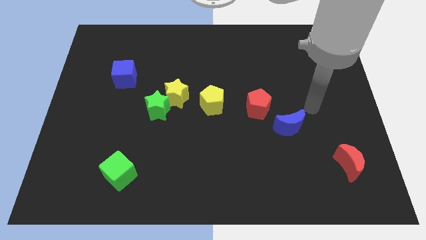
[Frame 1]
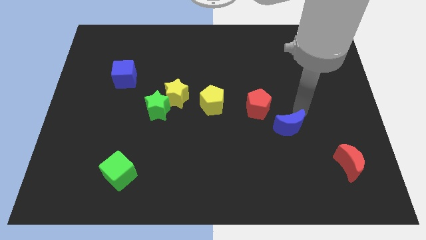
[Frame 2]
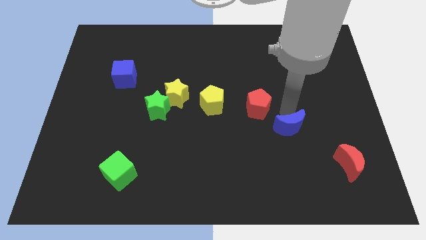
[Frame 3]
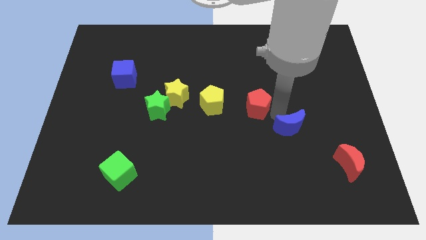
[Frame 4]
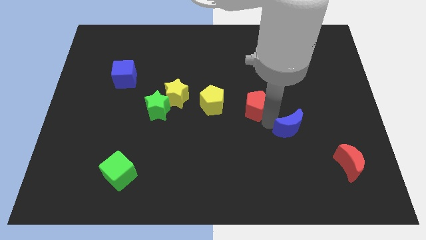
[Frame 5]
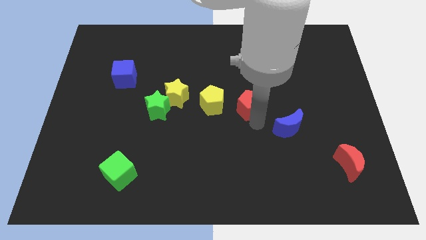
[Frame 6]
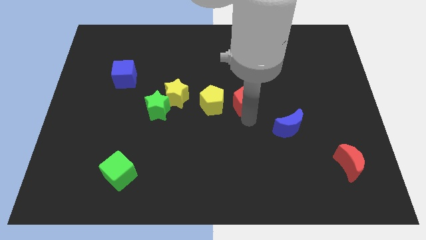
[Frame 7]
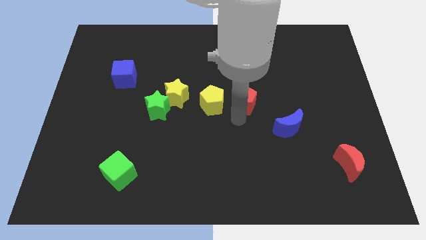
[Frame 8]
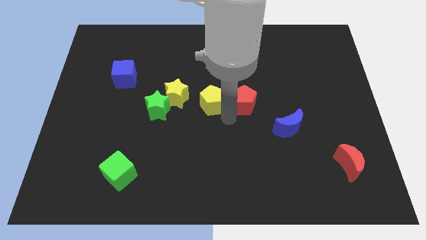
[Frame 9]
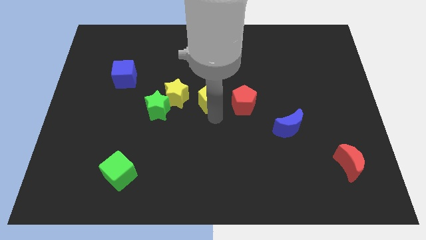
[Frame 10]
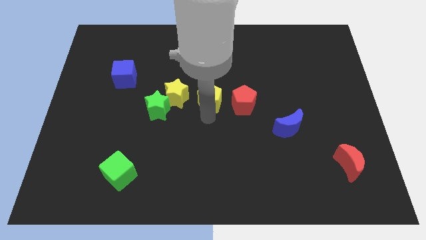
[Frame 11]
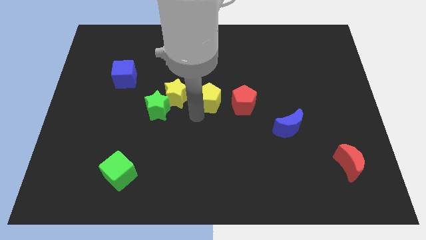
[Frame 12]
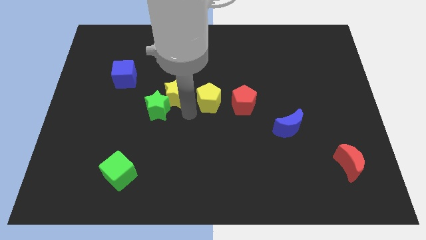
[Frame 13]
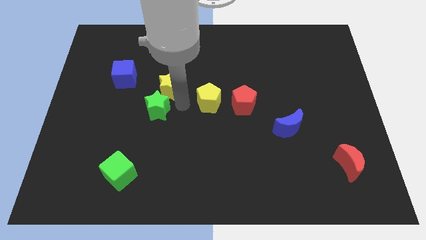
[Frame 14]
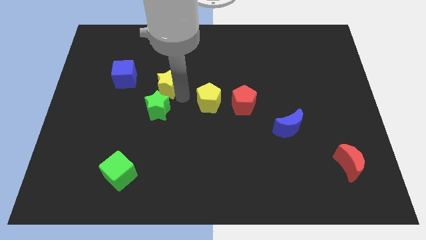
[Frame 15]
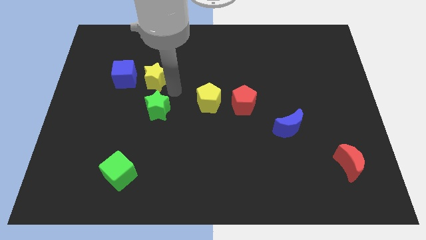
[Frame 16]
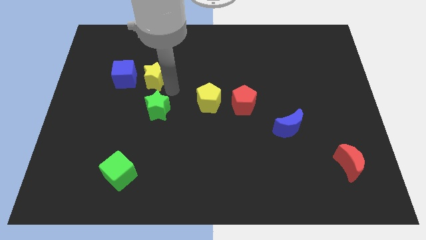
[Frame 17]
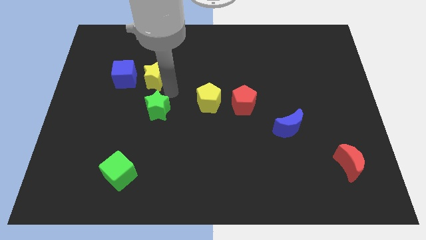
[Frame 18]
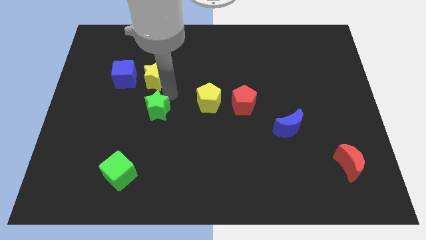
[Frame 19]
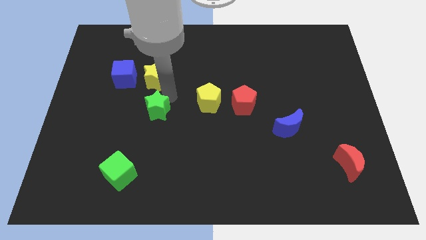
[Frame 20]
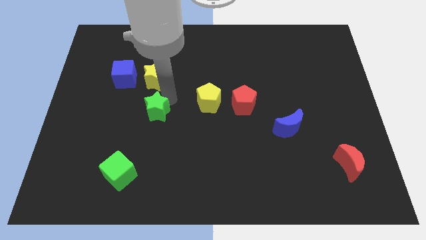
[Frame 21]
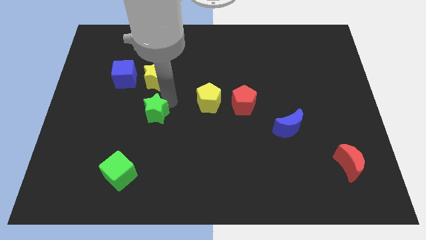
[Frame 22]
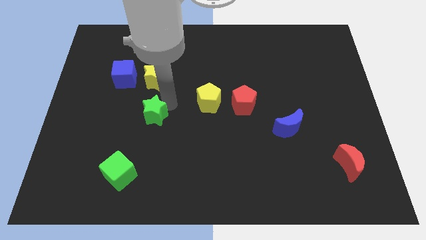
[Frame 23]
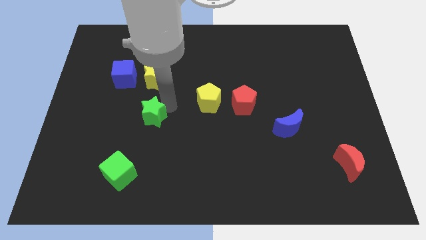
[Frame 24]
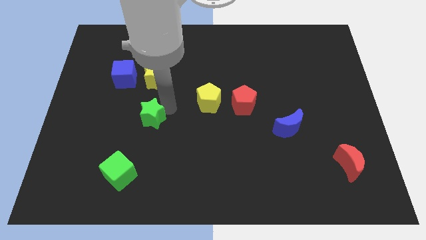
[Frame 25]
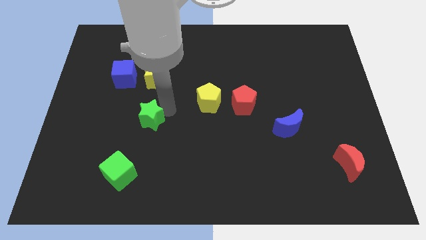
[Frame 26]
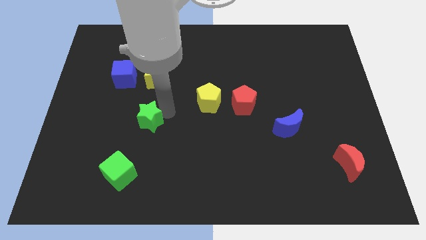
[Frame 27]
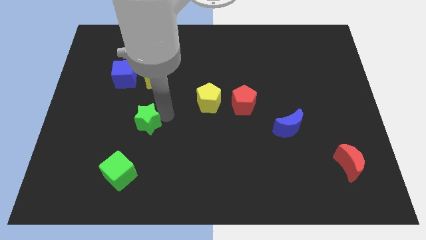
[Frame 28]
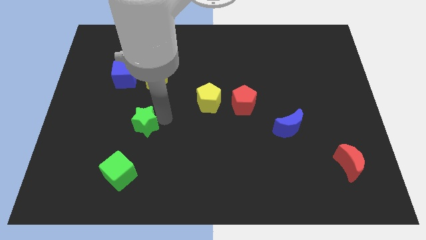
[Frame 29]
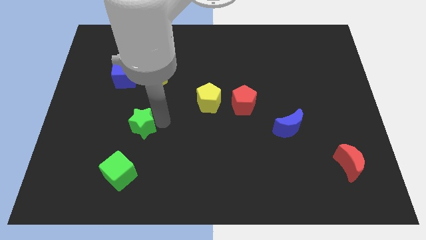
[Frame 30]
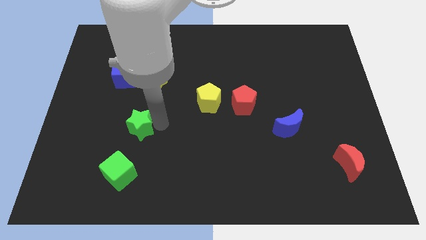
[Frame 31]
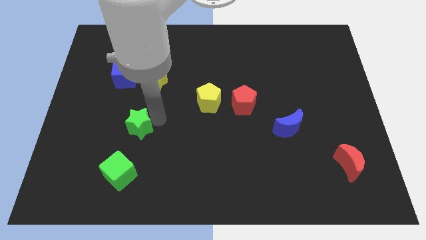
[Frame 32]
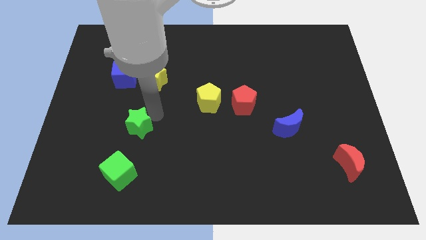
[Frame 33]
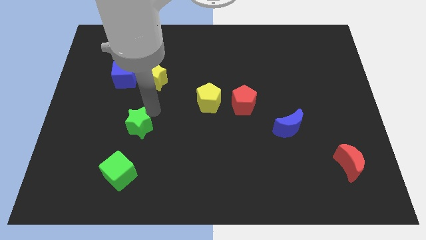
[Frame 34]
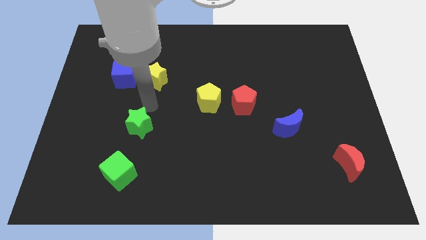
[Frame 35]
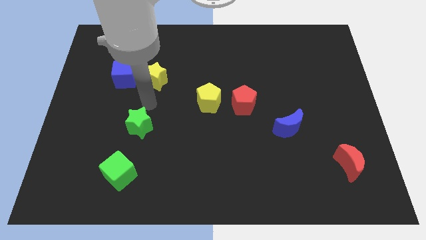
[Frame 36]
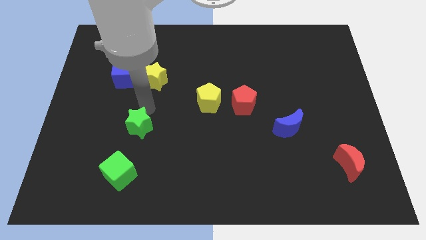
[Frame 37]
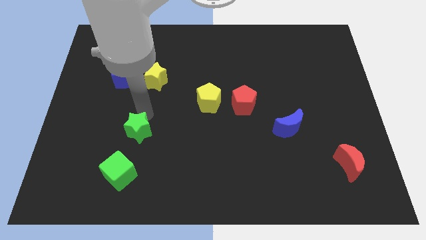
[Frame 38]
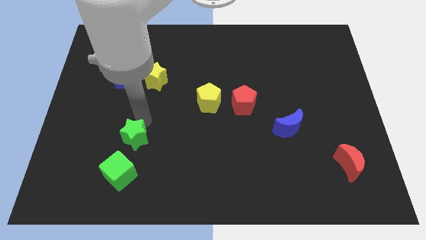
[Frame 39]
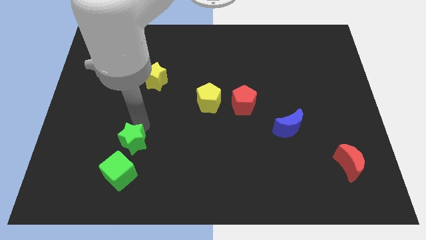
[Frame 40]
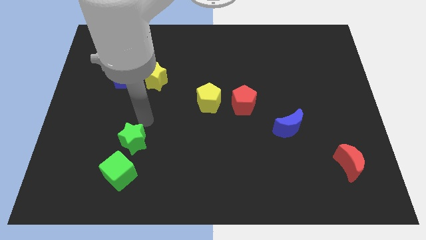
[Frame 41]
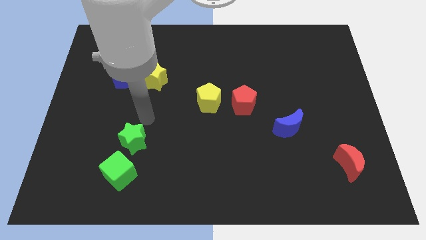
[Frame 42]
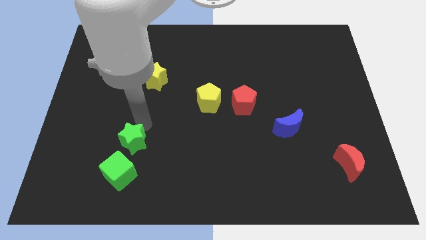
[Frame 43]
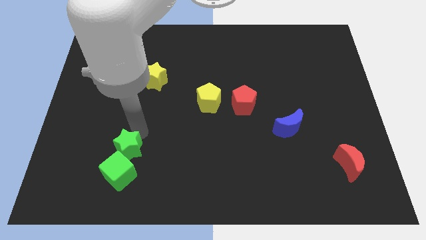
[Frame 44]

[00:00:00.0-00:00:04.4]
slide the green star close to the green cube

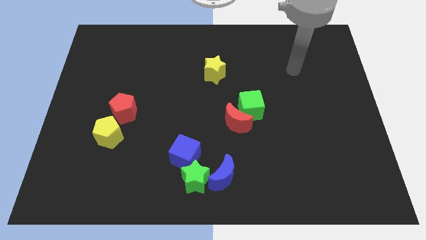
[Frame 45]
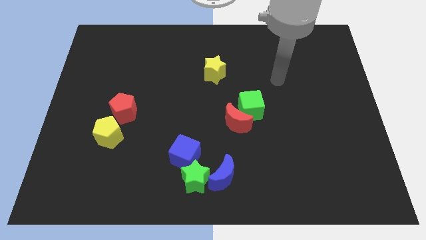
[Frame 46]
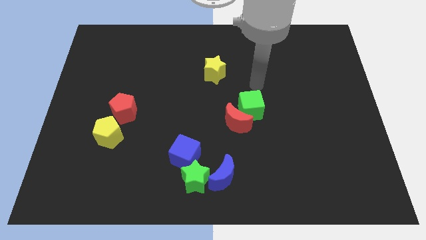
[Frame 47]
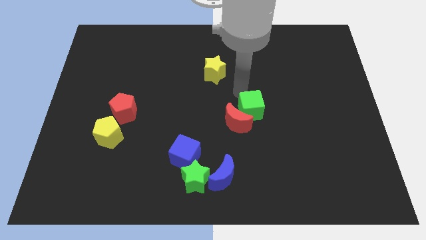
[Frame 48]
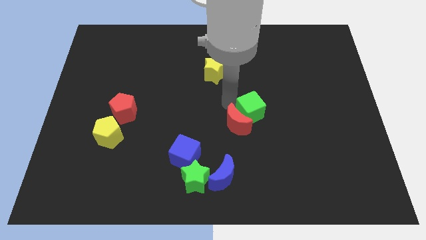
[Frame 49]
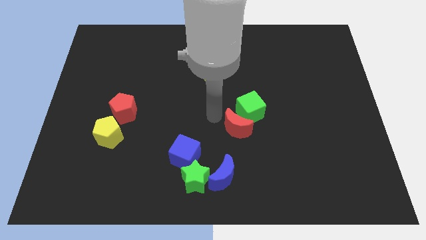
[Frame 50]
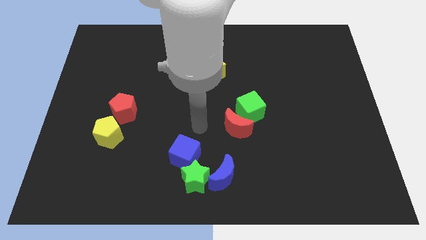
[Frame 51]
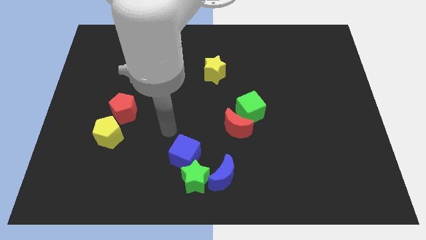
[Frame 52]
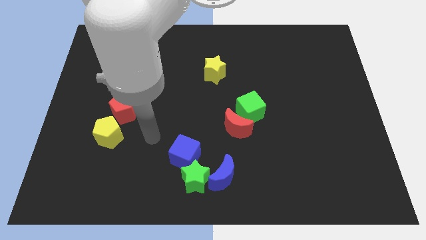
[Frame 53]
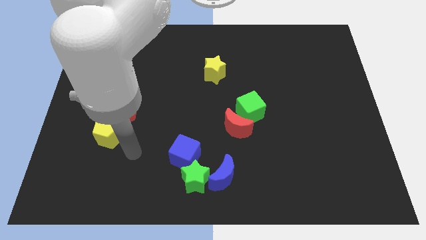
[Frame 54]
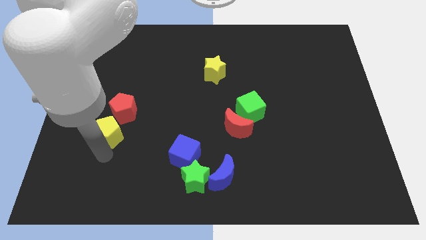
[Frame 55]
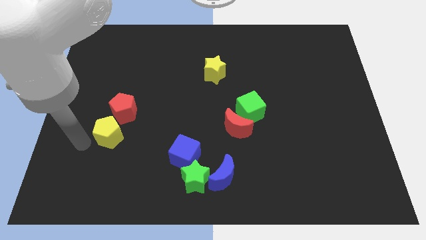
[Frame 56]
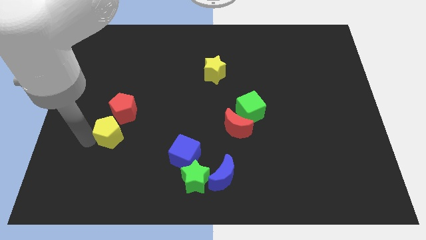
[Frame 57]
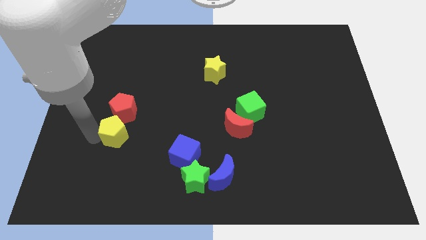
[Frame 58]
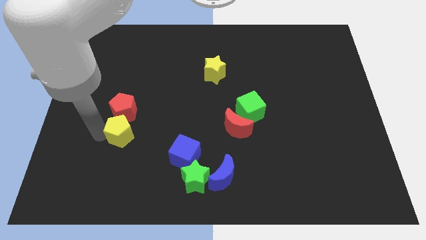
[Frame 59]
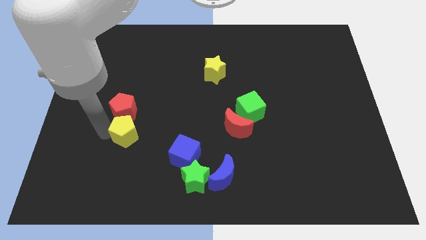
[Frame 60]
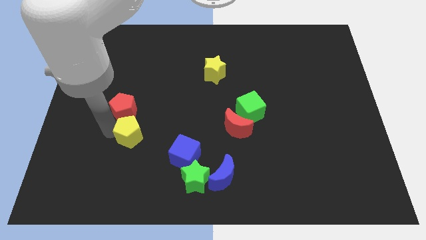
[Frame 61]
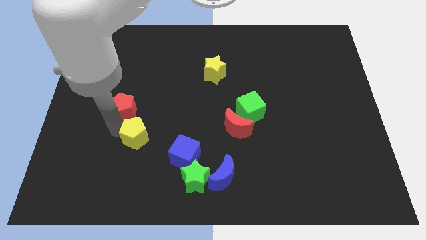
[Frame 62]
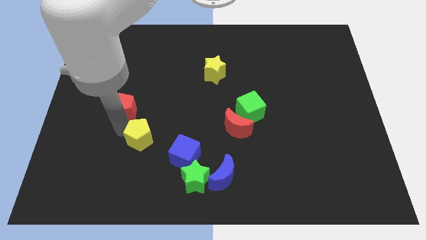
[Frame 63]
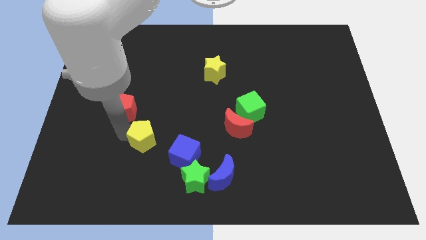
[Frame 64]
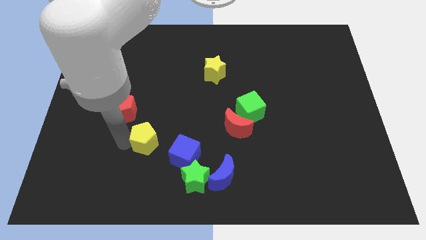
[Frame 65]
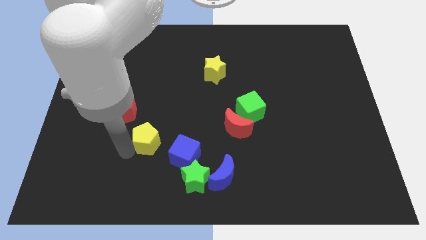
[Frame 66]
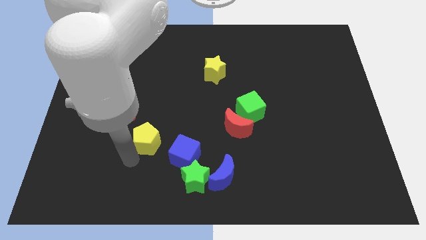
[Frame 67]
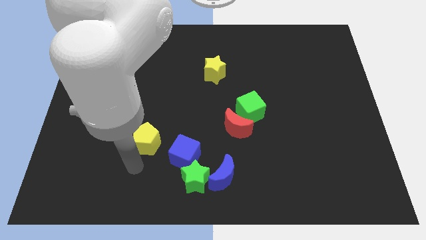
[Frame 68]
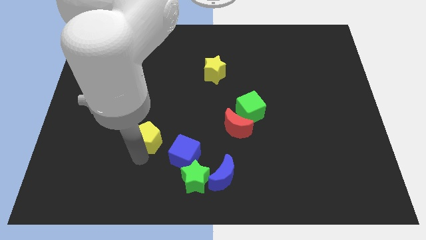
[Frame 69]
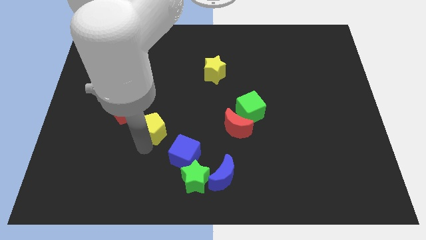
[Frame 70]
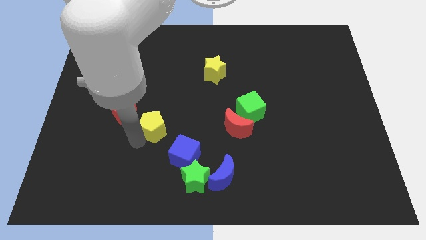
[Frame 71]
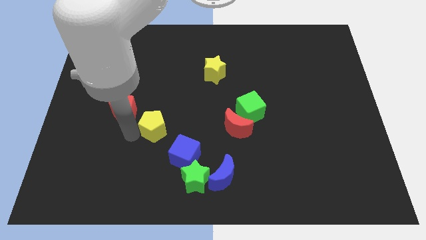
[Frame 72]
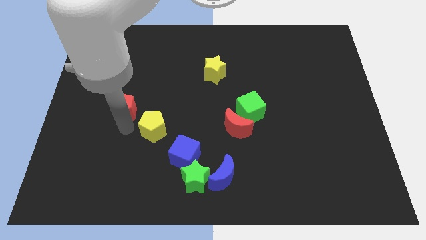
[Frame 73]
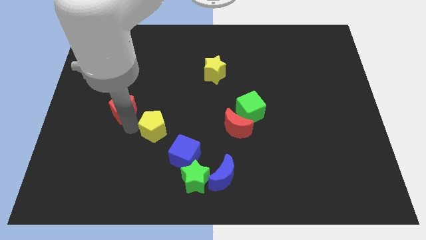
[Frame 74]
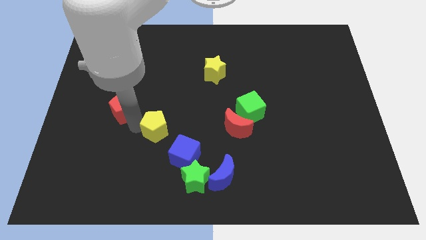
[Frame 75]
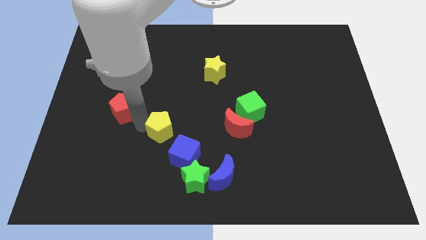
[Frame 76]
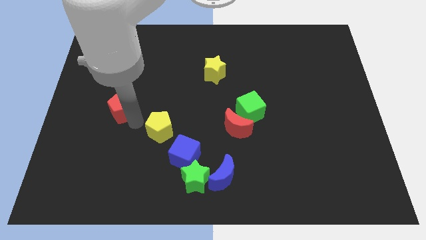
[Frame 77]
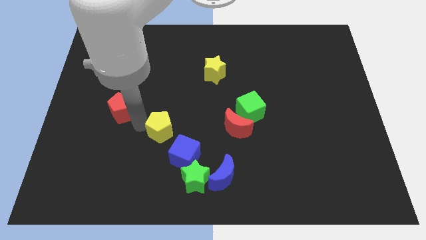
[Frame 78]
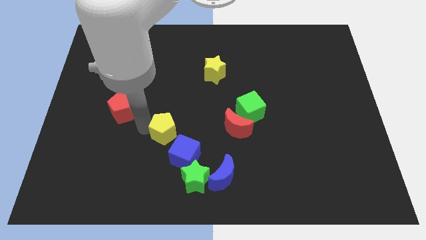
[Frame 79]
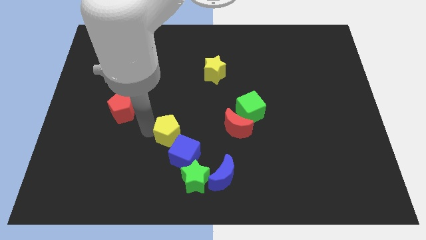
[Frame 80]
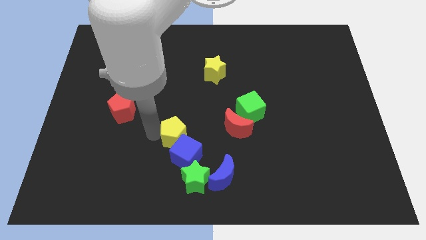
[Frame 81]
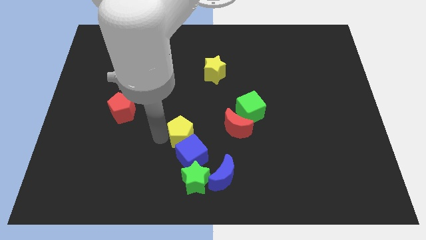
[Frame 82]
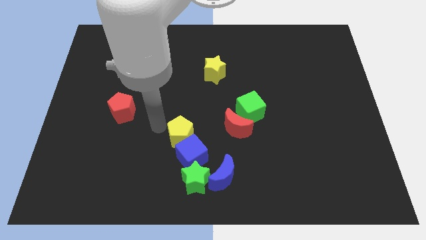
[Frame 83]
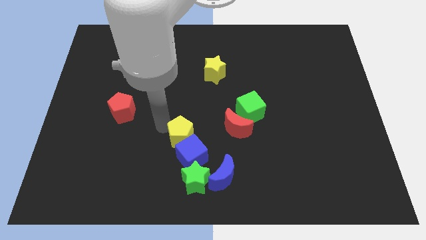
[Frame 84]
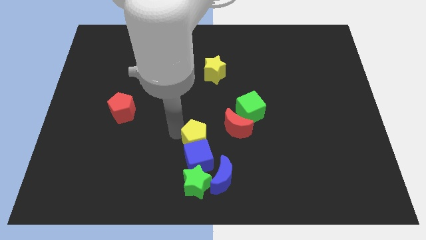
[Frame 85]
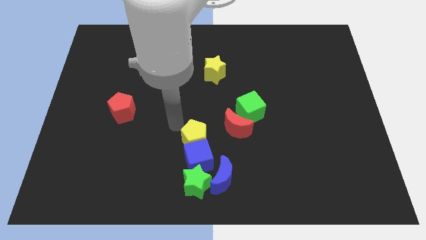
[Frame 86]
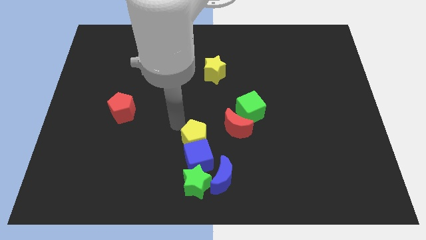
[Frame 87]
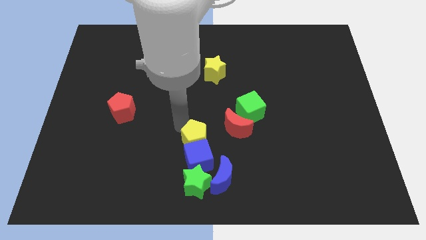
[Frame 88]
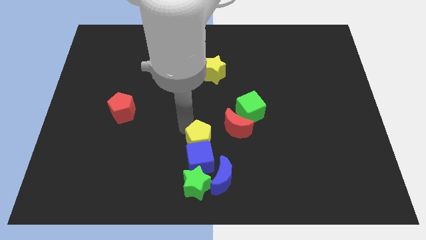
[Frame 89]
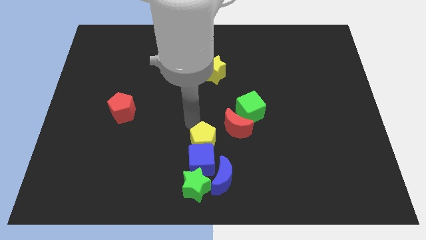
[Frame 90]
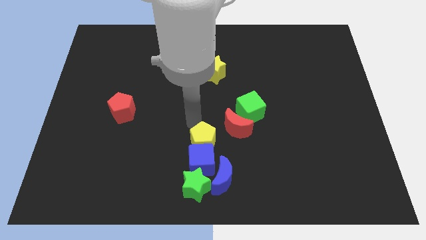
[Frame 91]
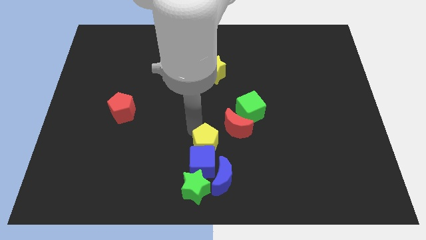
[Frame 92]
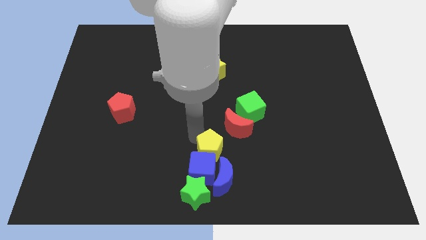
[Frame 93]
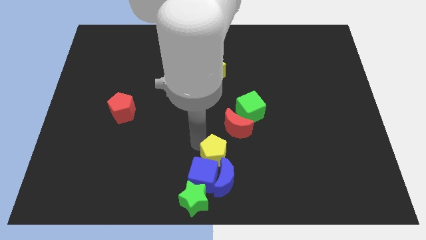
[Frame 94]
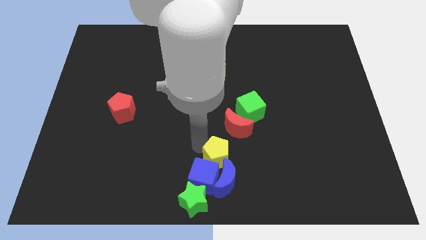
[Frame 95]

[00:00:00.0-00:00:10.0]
slide the yellow pentagon close to the blue moon
